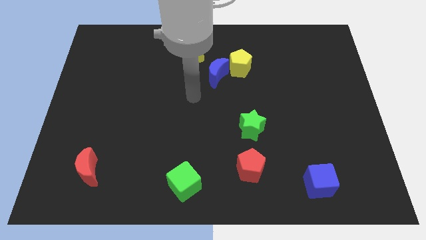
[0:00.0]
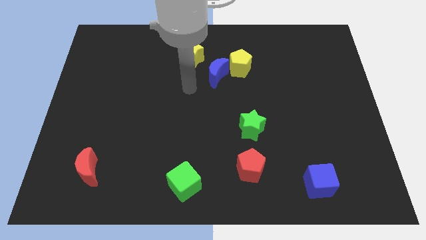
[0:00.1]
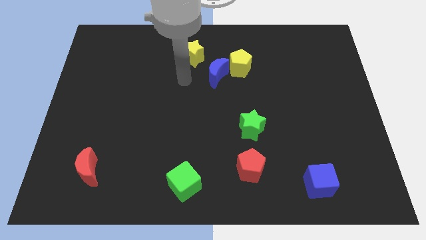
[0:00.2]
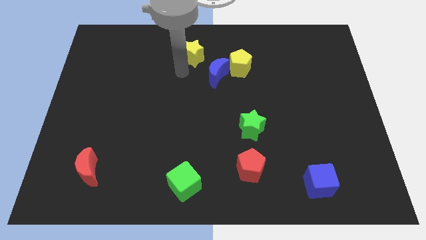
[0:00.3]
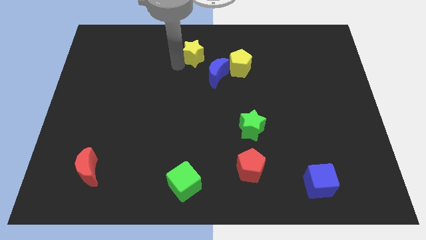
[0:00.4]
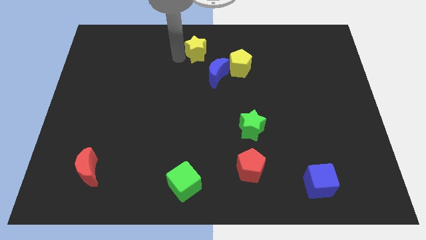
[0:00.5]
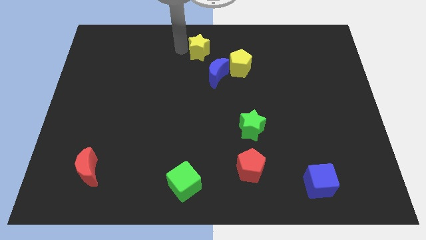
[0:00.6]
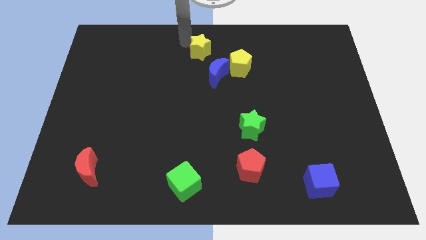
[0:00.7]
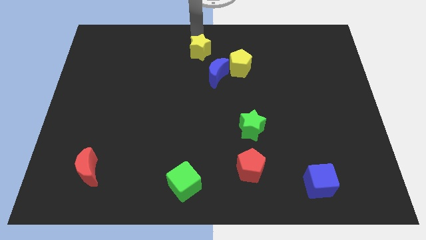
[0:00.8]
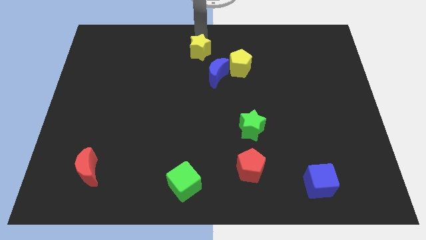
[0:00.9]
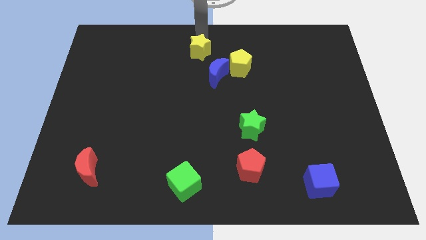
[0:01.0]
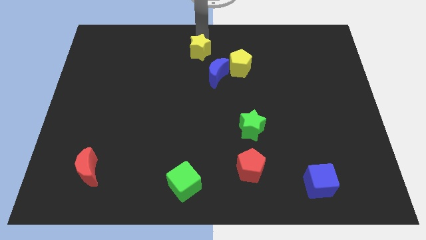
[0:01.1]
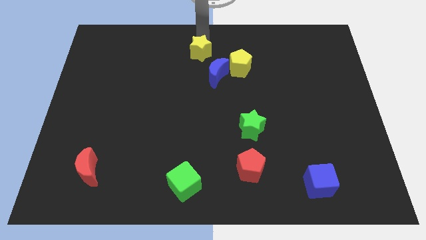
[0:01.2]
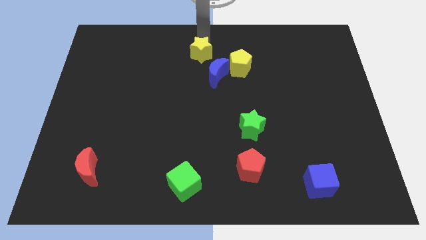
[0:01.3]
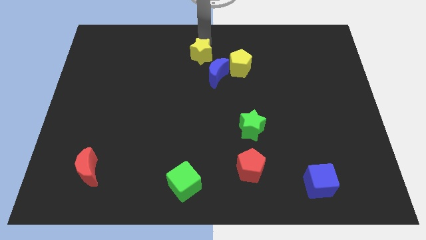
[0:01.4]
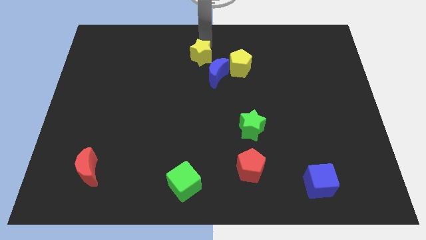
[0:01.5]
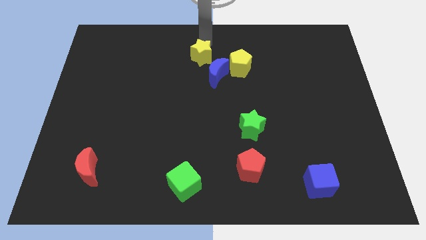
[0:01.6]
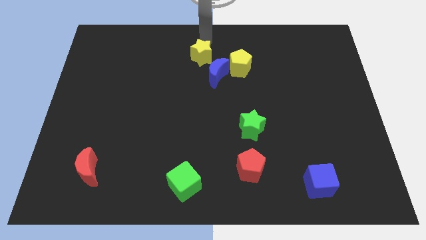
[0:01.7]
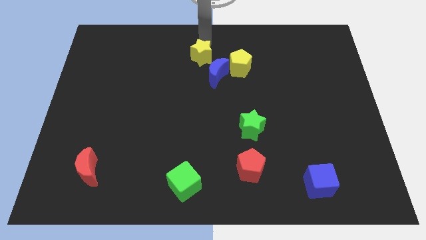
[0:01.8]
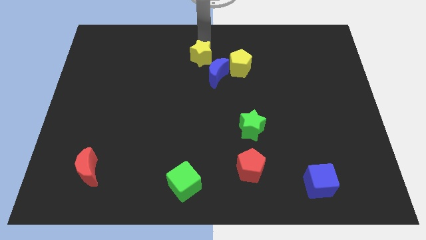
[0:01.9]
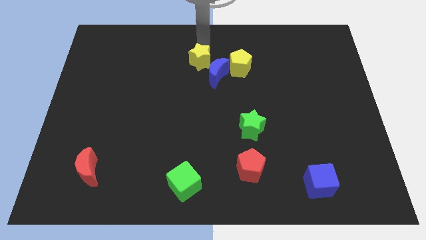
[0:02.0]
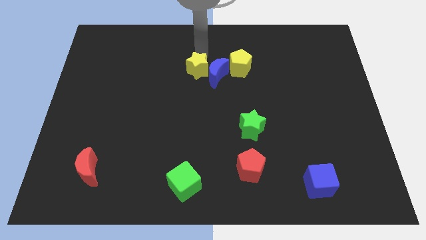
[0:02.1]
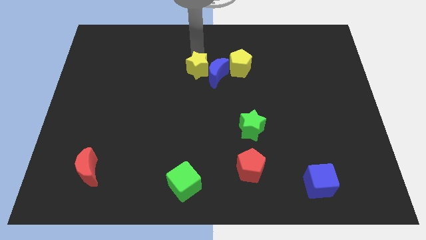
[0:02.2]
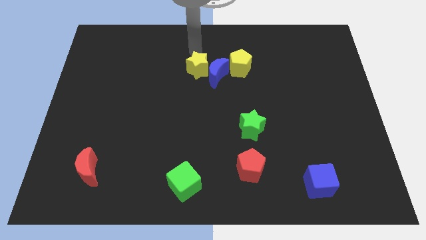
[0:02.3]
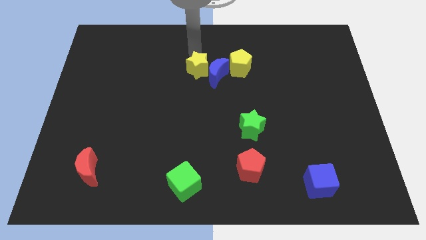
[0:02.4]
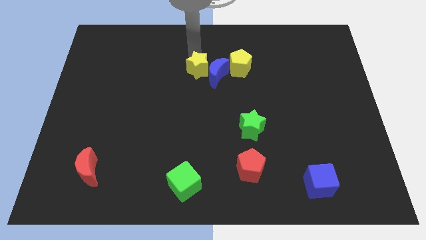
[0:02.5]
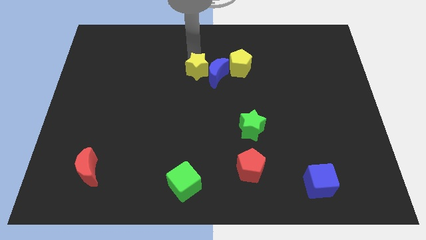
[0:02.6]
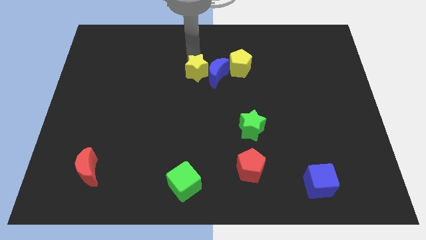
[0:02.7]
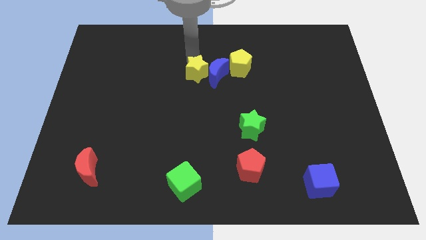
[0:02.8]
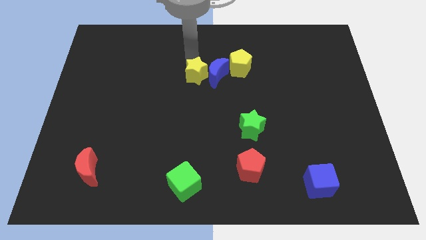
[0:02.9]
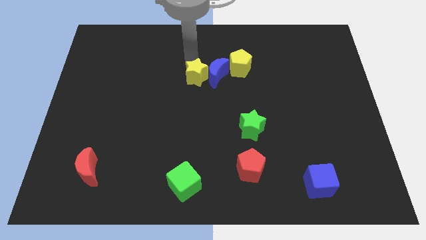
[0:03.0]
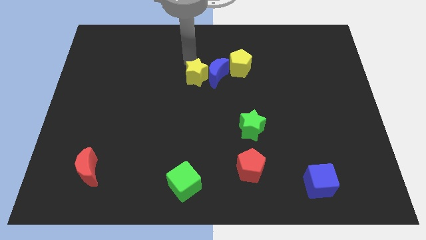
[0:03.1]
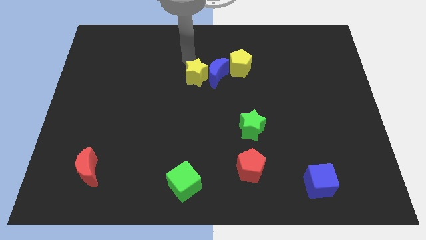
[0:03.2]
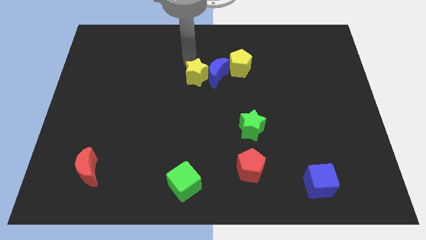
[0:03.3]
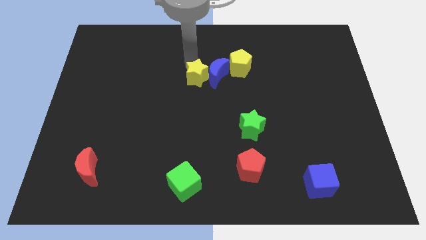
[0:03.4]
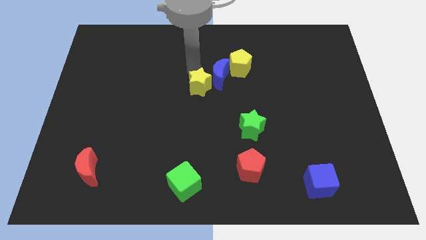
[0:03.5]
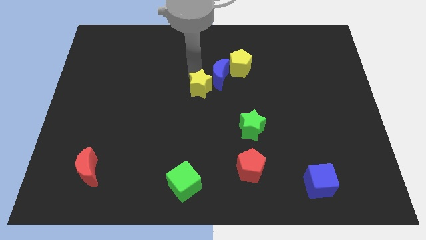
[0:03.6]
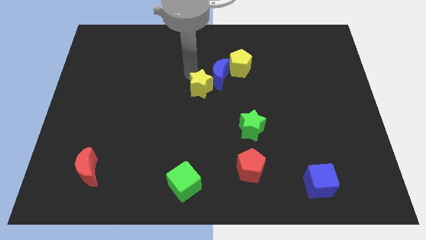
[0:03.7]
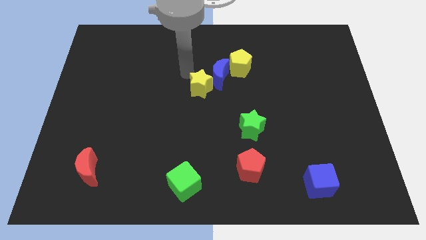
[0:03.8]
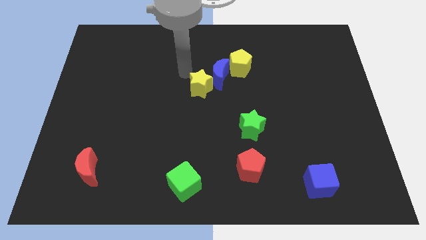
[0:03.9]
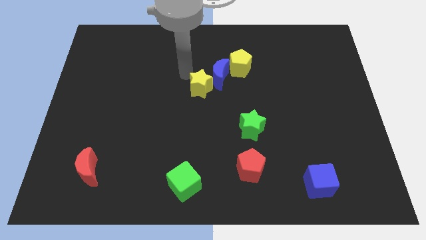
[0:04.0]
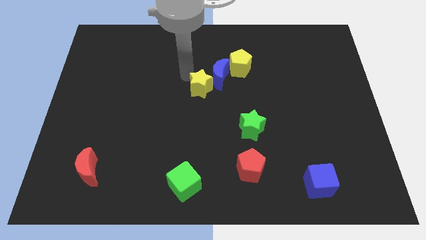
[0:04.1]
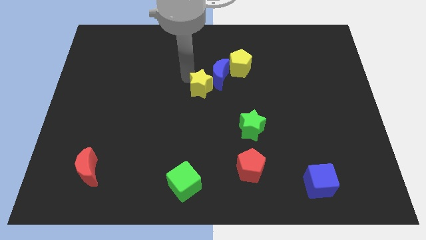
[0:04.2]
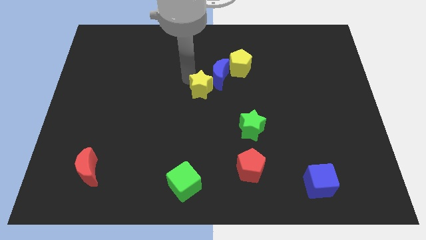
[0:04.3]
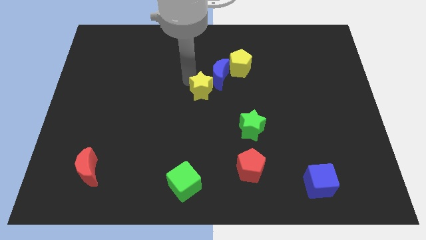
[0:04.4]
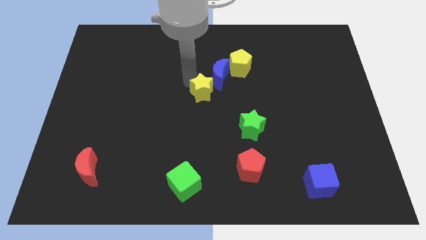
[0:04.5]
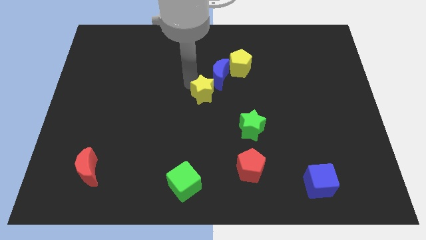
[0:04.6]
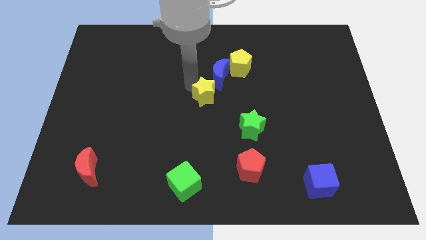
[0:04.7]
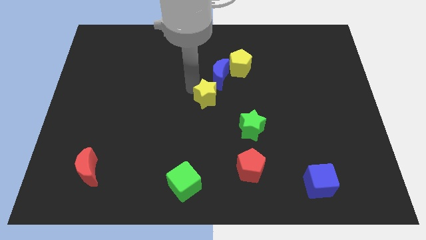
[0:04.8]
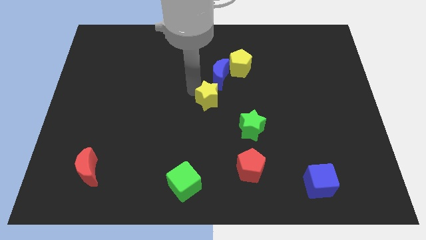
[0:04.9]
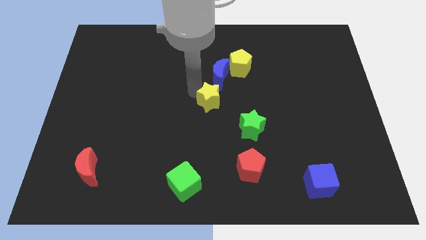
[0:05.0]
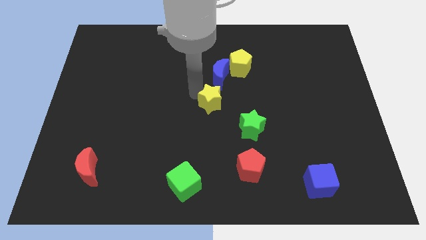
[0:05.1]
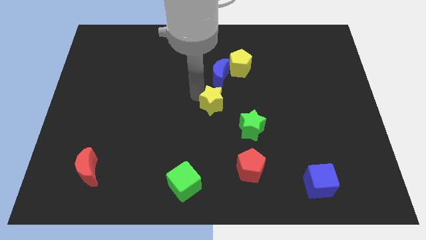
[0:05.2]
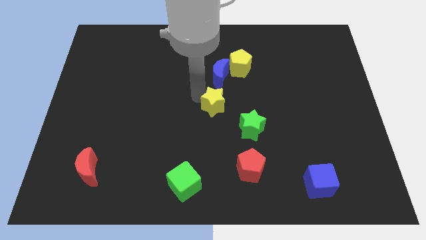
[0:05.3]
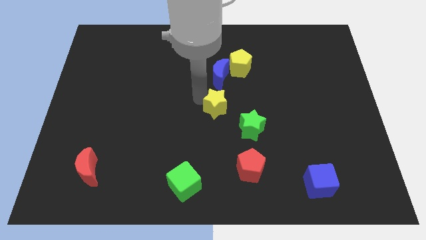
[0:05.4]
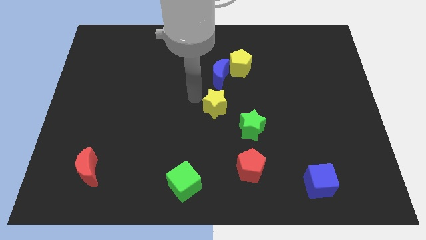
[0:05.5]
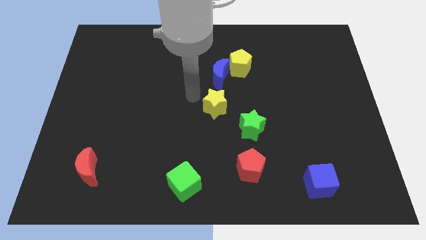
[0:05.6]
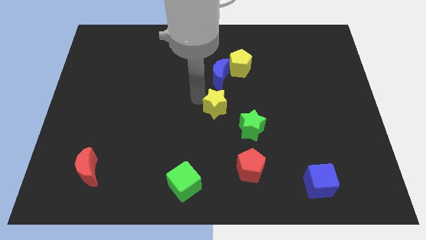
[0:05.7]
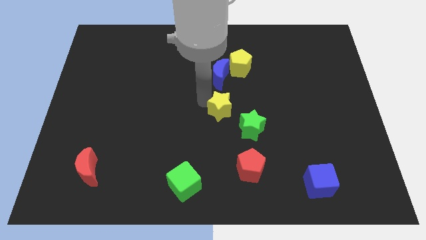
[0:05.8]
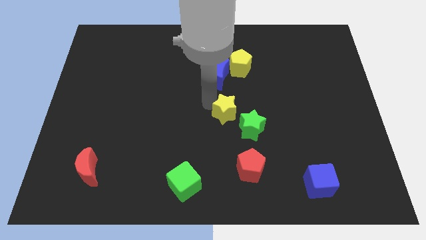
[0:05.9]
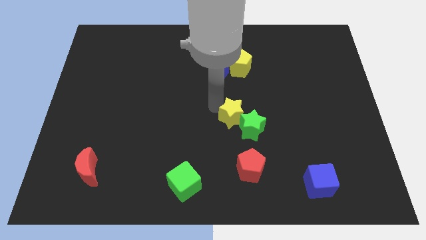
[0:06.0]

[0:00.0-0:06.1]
slide the yellow star towards the green star

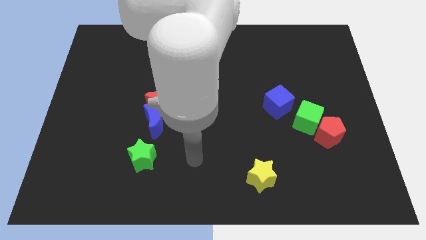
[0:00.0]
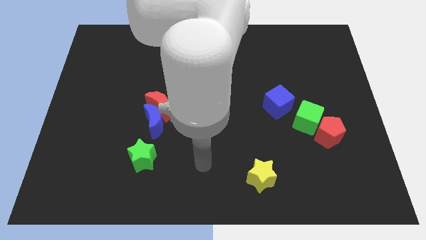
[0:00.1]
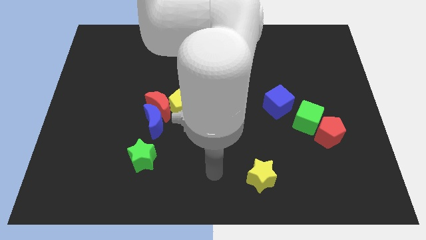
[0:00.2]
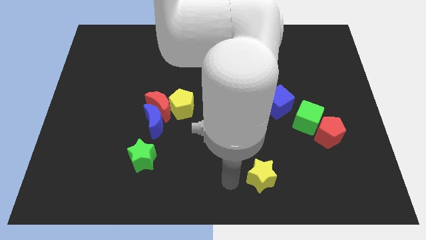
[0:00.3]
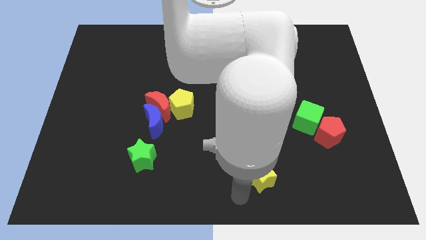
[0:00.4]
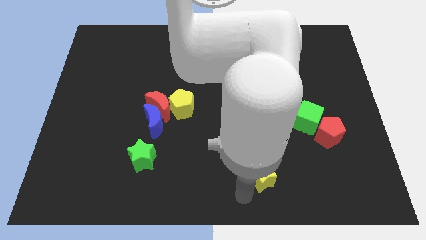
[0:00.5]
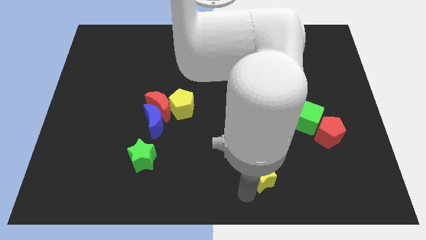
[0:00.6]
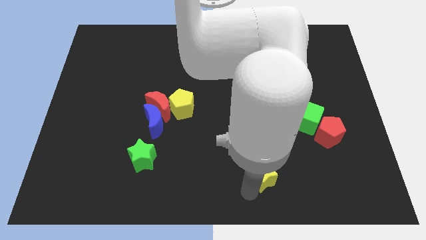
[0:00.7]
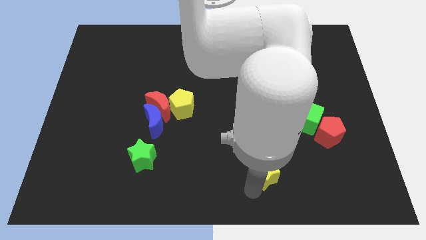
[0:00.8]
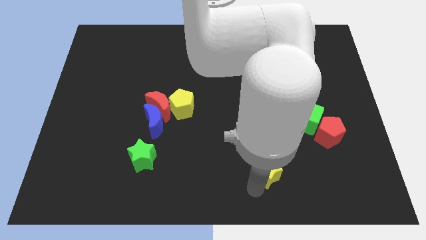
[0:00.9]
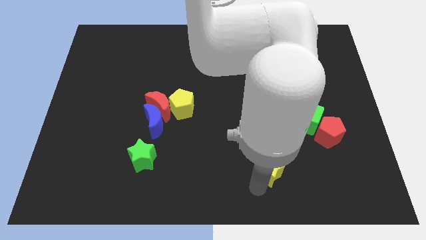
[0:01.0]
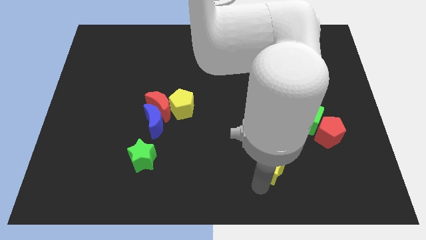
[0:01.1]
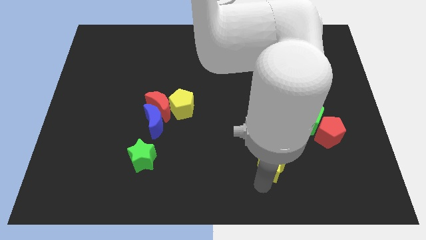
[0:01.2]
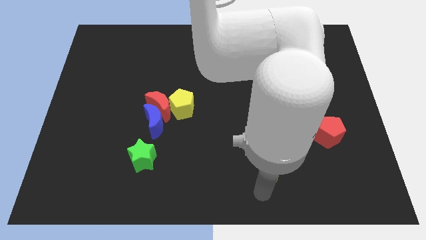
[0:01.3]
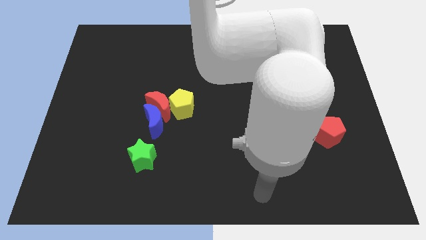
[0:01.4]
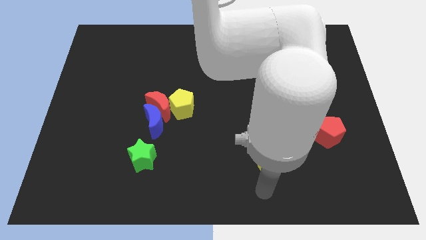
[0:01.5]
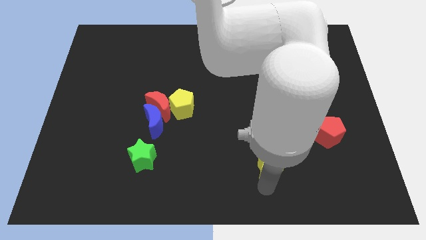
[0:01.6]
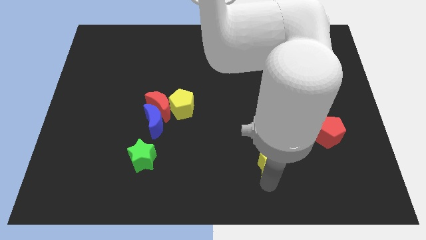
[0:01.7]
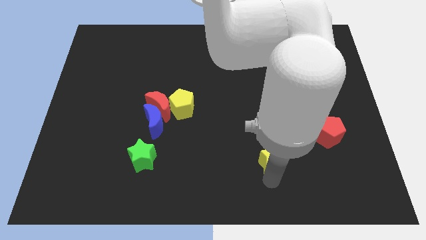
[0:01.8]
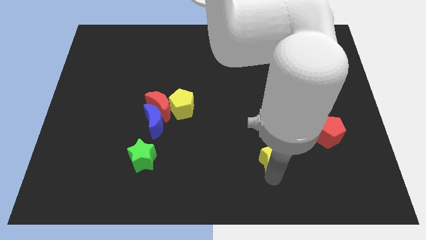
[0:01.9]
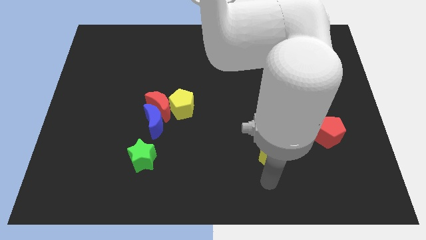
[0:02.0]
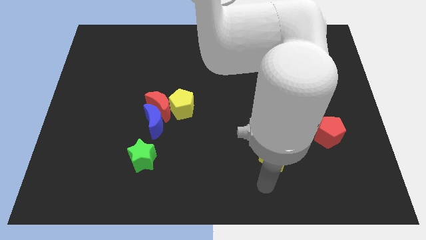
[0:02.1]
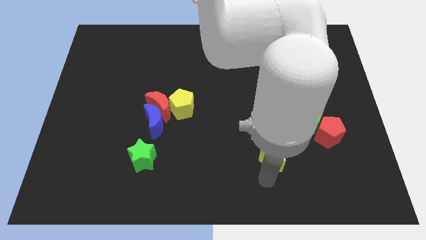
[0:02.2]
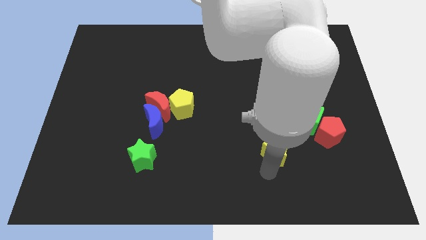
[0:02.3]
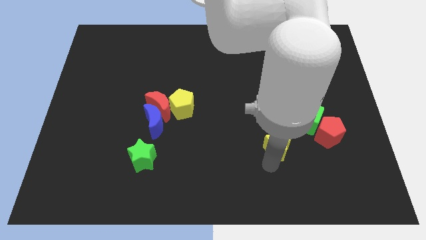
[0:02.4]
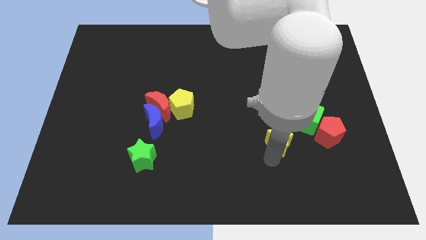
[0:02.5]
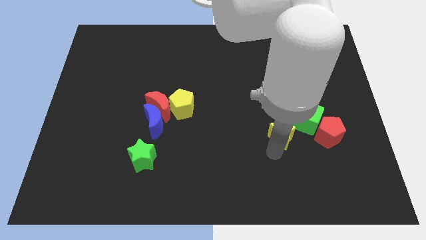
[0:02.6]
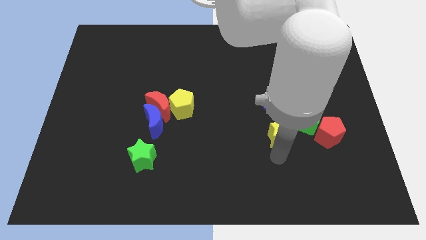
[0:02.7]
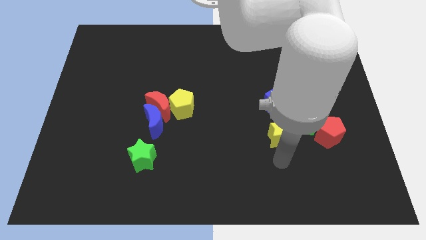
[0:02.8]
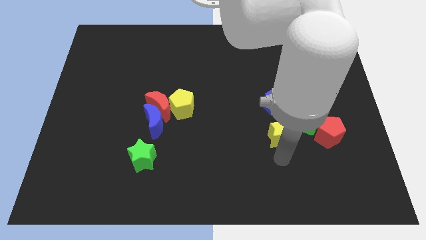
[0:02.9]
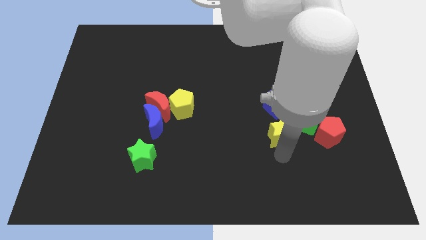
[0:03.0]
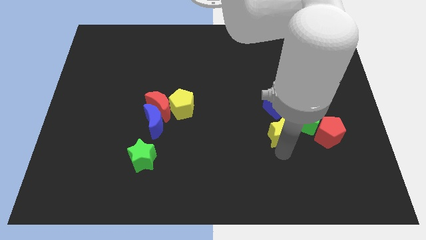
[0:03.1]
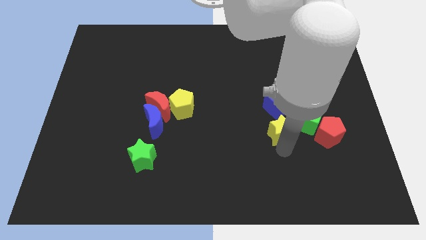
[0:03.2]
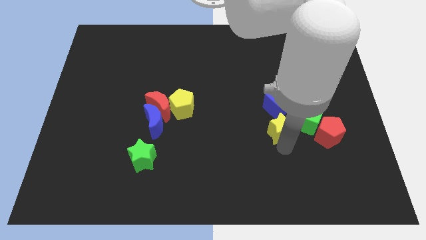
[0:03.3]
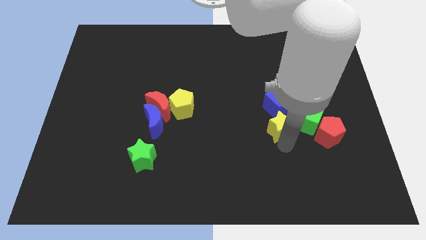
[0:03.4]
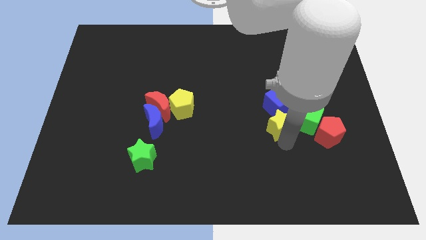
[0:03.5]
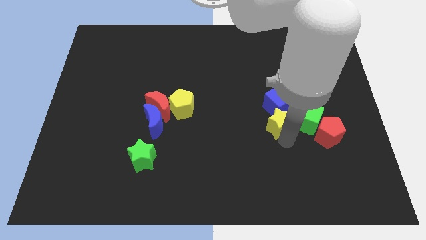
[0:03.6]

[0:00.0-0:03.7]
put the yellow star to the blue cube
